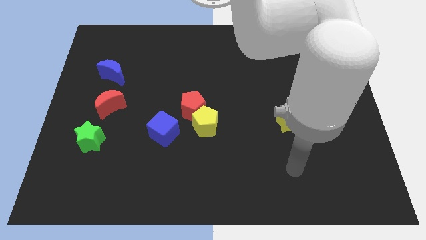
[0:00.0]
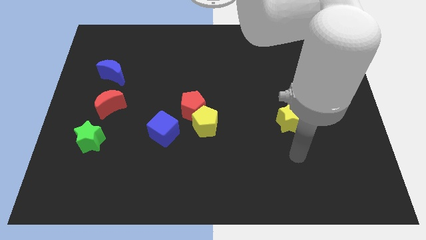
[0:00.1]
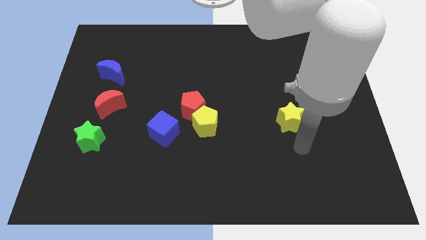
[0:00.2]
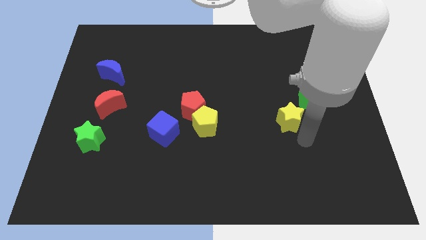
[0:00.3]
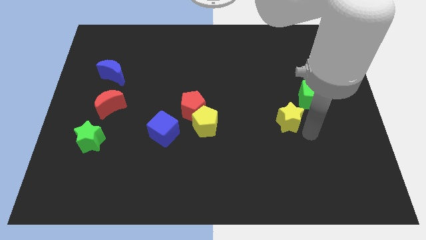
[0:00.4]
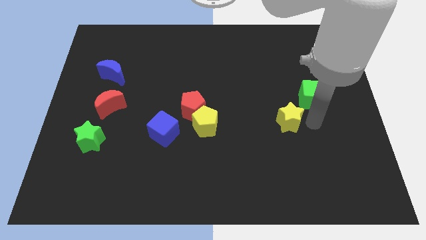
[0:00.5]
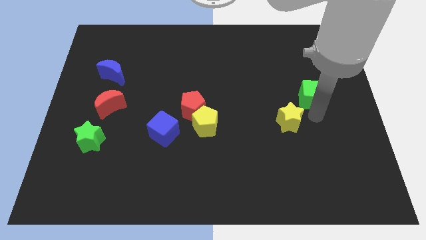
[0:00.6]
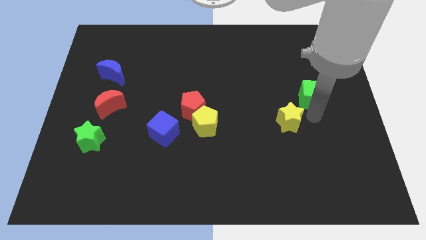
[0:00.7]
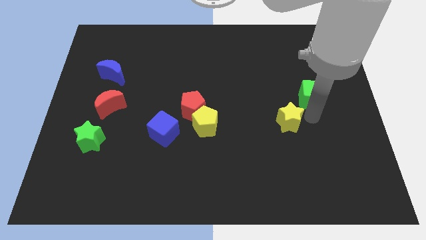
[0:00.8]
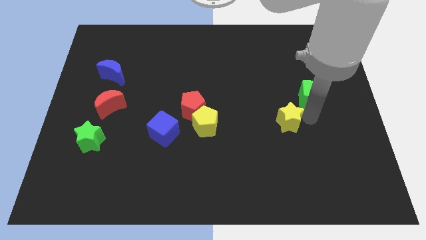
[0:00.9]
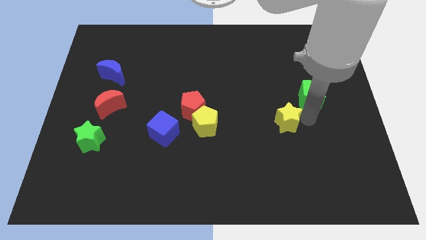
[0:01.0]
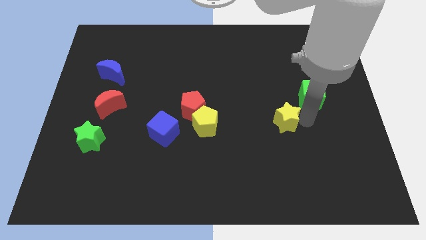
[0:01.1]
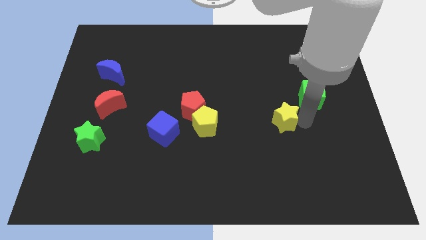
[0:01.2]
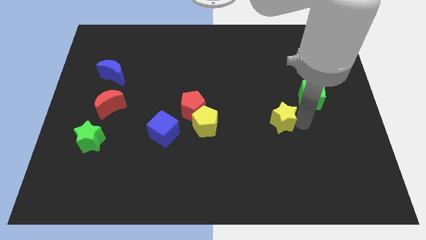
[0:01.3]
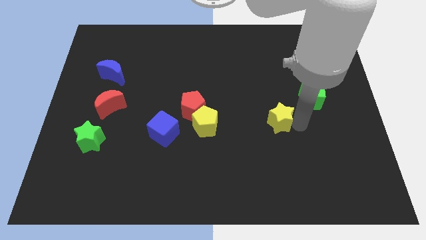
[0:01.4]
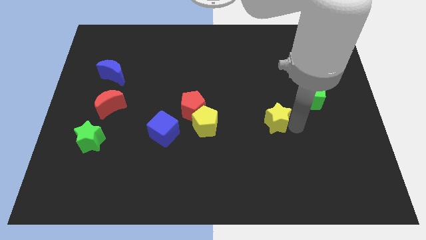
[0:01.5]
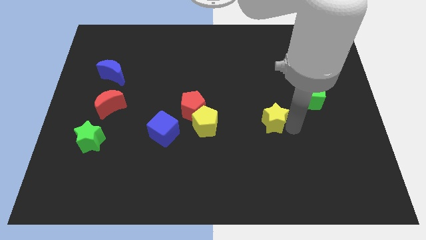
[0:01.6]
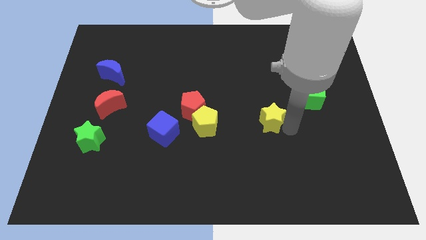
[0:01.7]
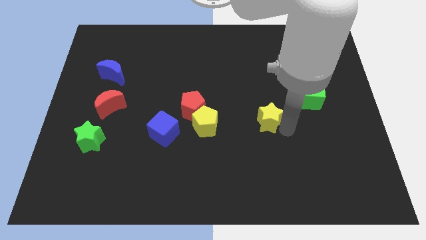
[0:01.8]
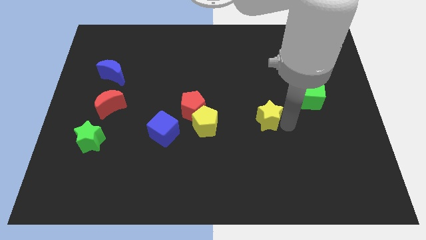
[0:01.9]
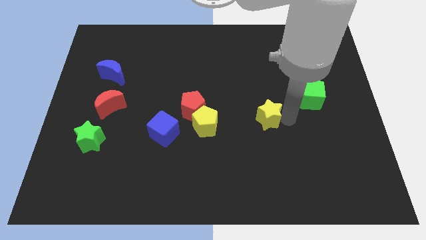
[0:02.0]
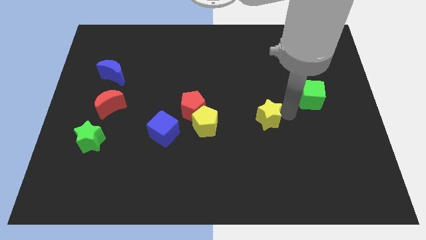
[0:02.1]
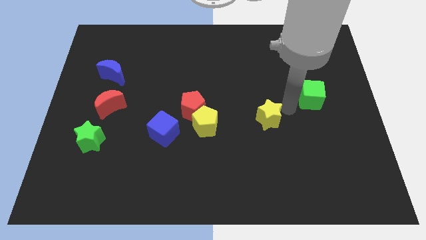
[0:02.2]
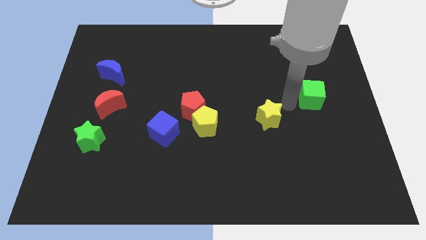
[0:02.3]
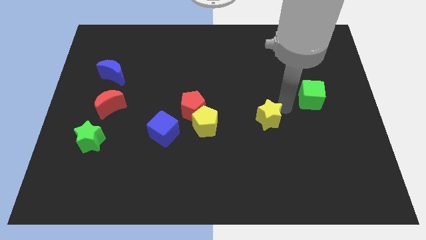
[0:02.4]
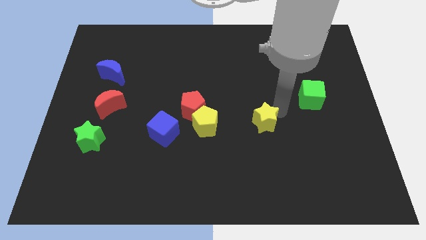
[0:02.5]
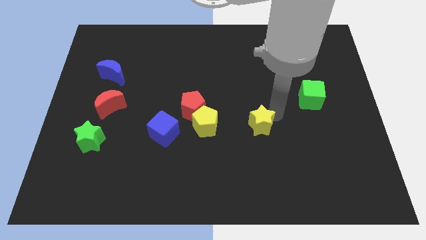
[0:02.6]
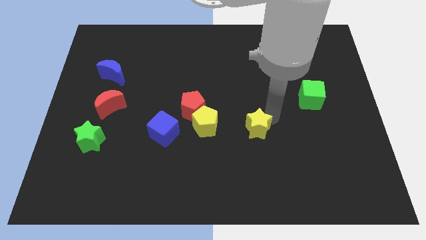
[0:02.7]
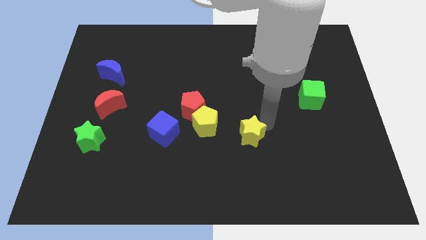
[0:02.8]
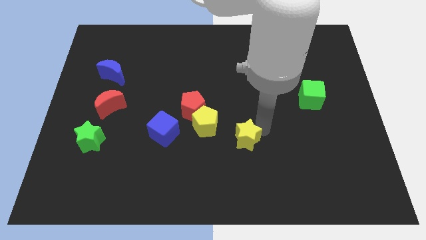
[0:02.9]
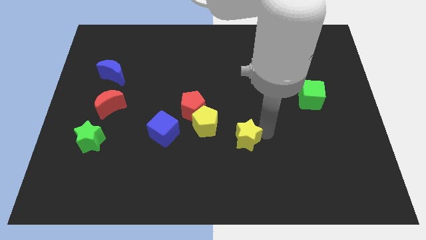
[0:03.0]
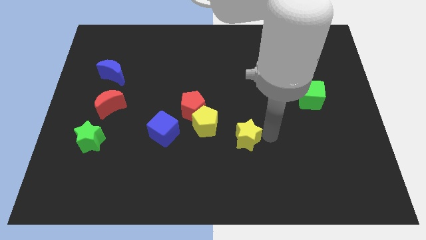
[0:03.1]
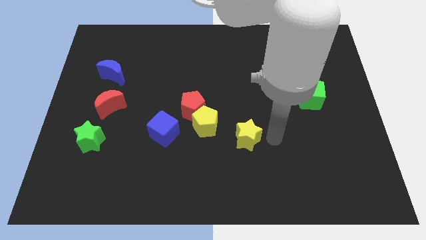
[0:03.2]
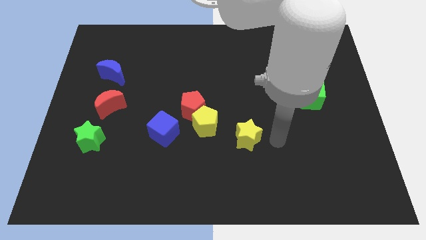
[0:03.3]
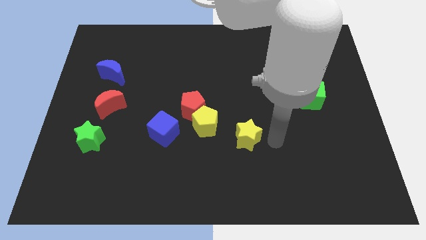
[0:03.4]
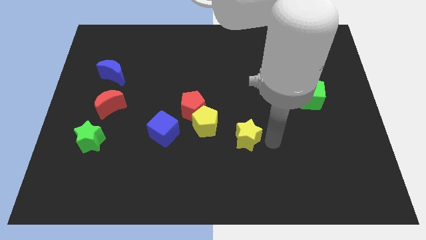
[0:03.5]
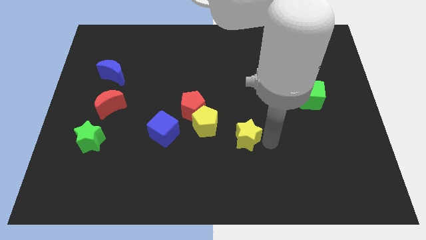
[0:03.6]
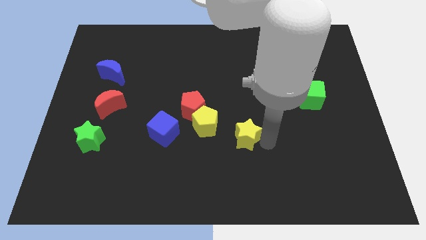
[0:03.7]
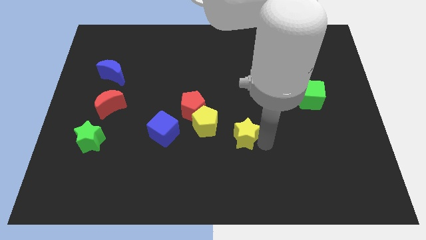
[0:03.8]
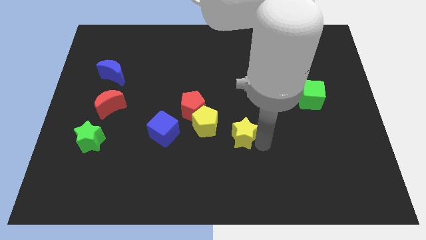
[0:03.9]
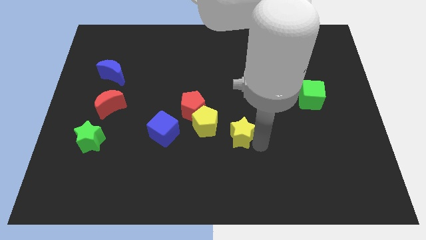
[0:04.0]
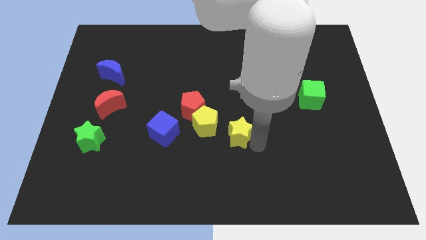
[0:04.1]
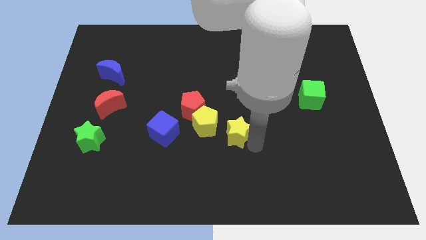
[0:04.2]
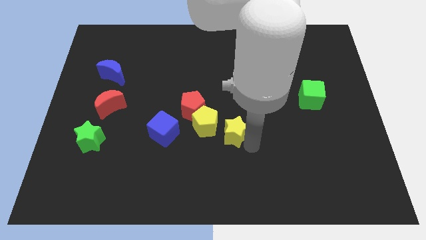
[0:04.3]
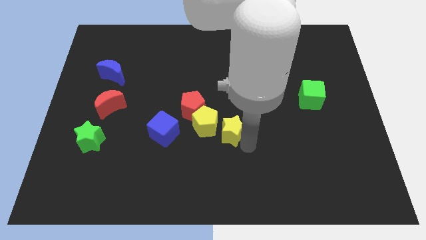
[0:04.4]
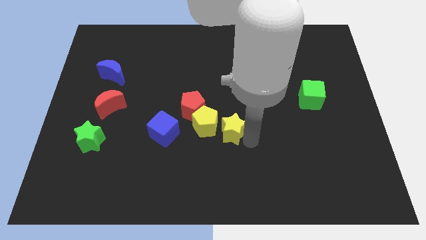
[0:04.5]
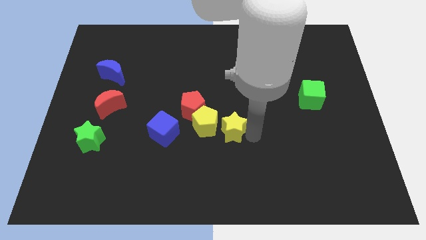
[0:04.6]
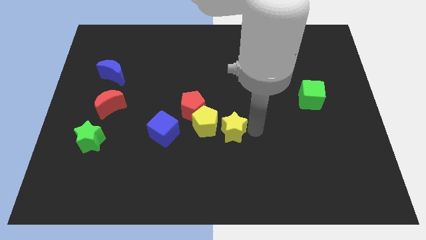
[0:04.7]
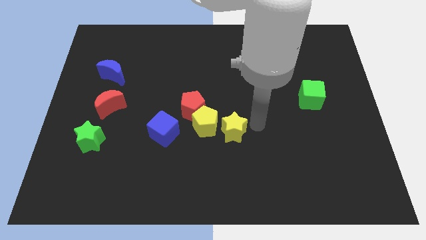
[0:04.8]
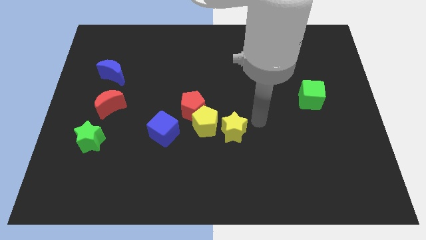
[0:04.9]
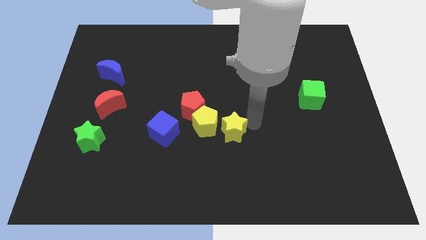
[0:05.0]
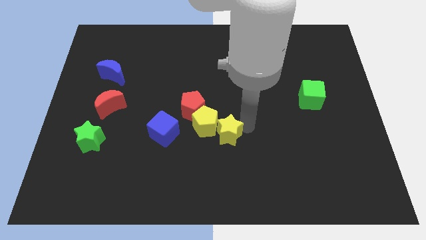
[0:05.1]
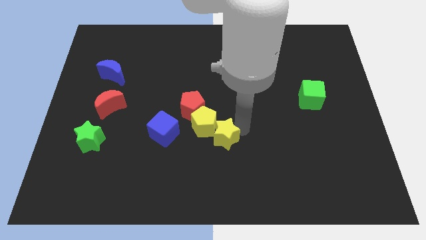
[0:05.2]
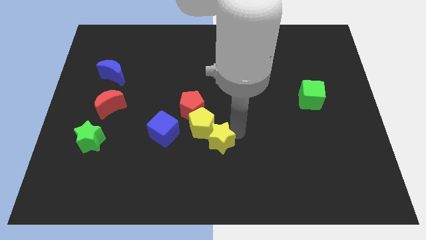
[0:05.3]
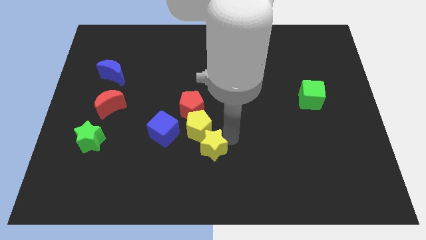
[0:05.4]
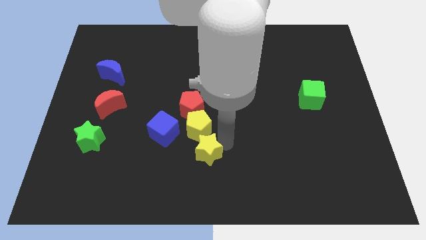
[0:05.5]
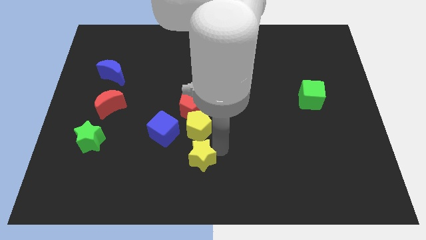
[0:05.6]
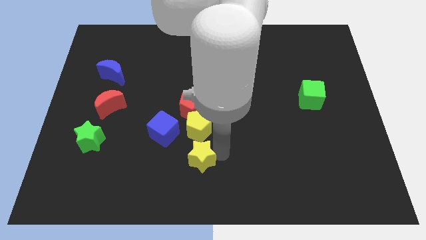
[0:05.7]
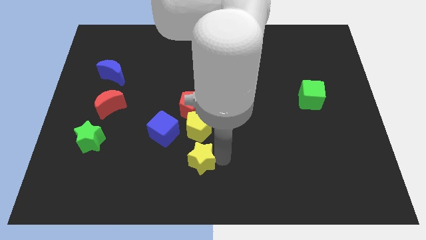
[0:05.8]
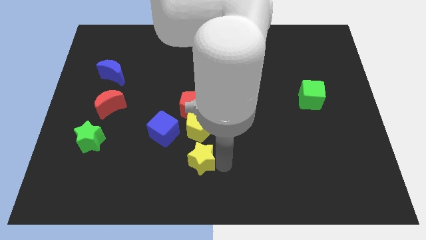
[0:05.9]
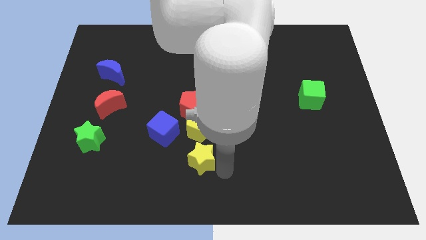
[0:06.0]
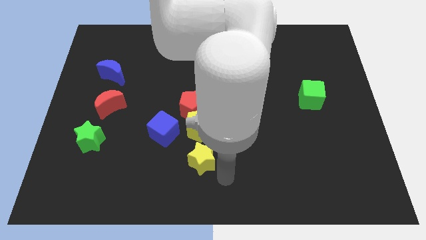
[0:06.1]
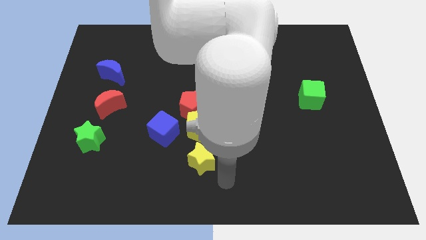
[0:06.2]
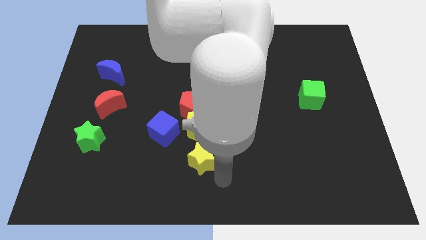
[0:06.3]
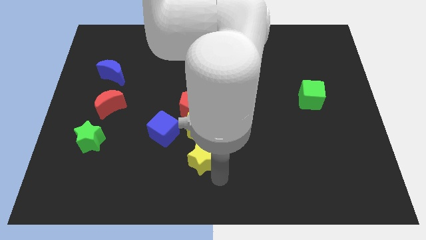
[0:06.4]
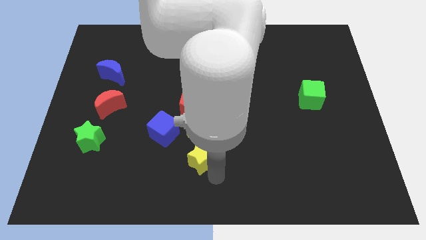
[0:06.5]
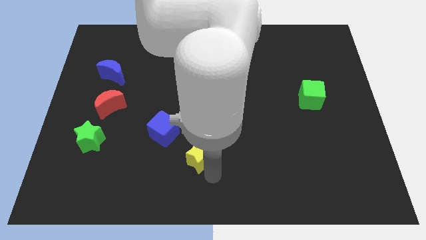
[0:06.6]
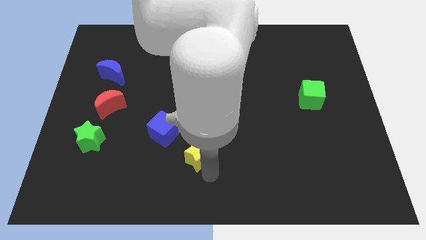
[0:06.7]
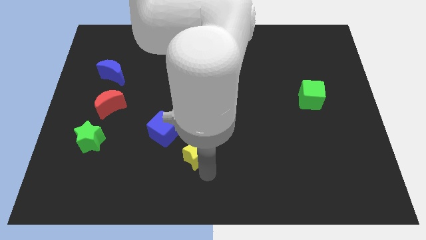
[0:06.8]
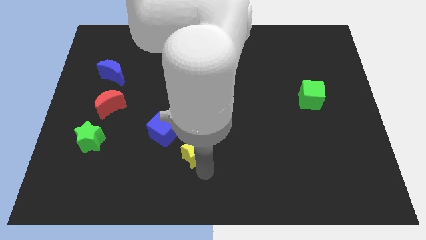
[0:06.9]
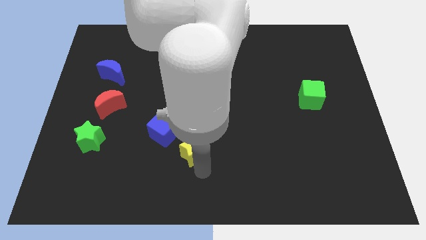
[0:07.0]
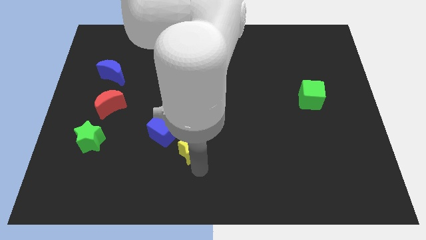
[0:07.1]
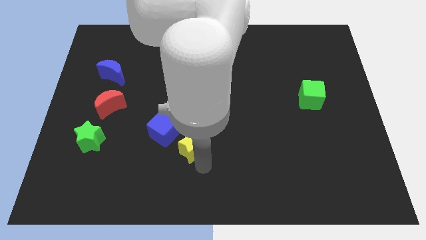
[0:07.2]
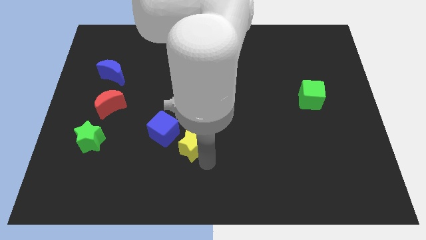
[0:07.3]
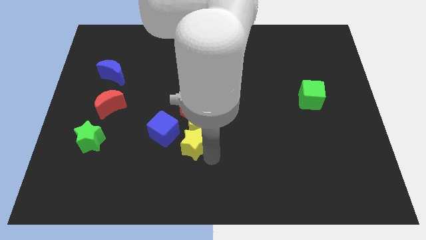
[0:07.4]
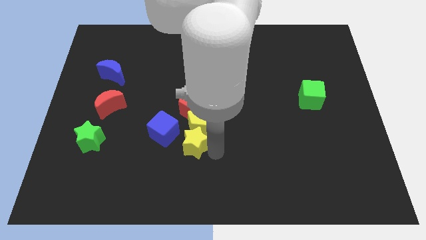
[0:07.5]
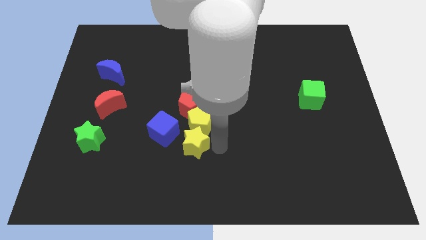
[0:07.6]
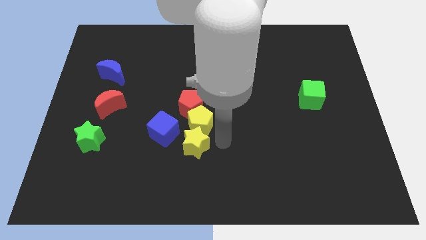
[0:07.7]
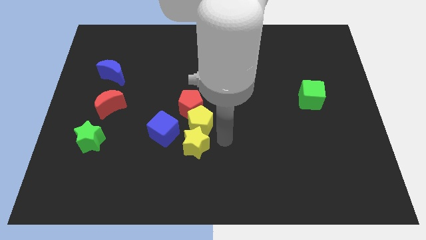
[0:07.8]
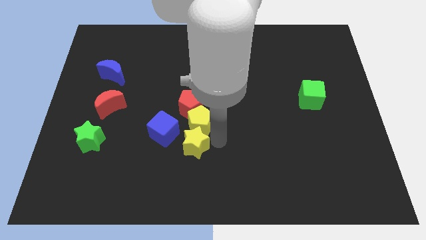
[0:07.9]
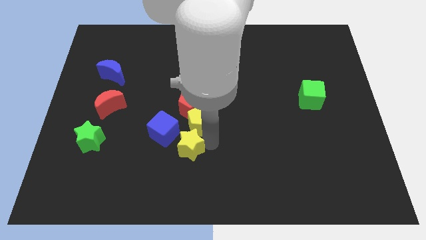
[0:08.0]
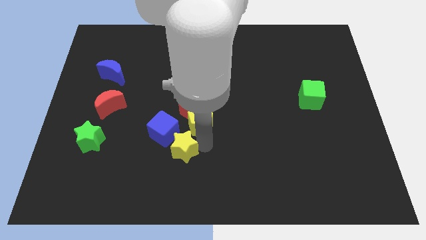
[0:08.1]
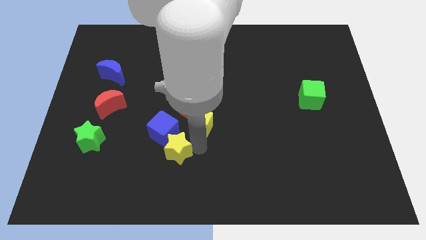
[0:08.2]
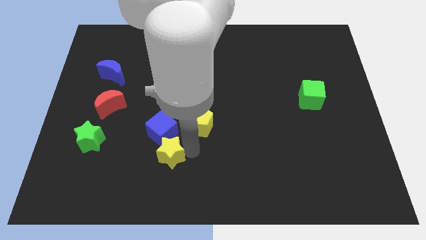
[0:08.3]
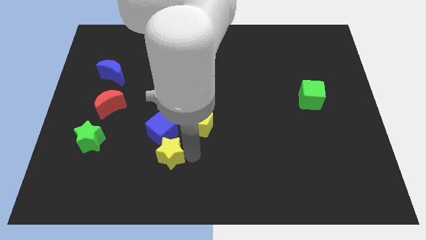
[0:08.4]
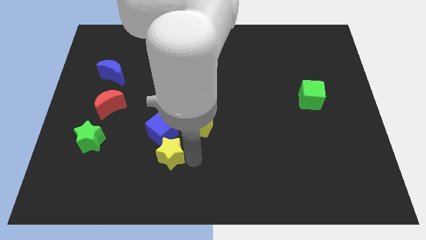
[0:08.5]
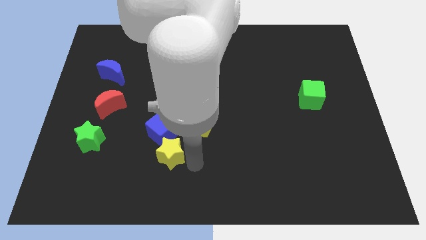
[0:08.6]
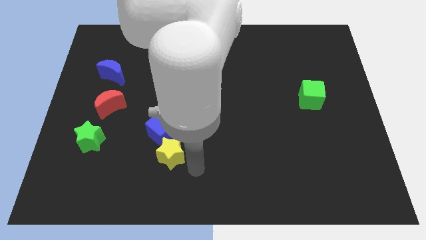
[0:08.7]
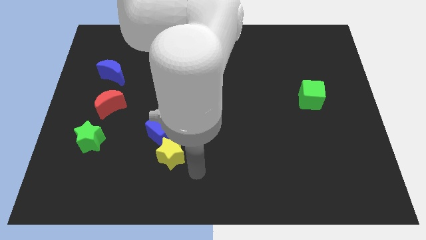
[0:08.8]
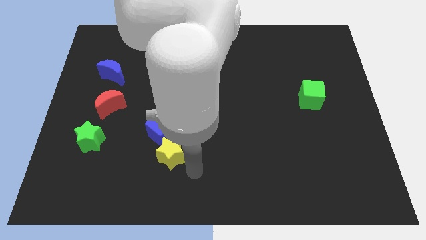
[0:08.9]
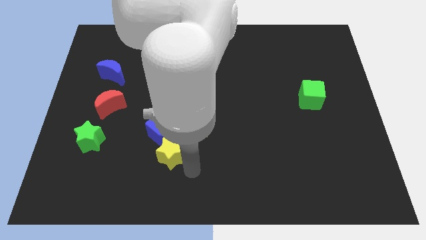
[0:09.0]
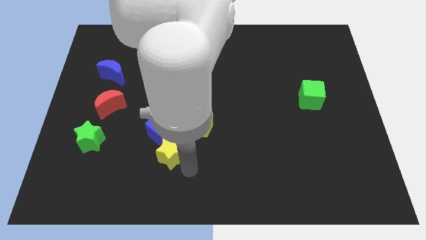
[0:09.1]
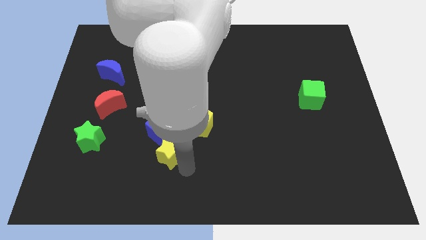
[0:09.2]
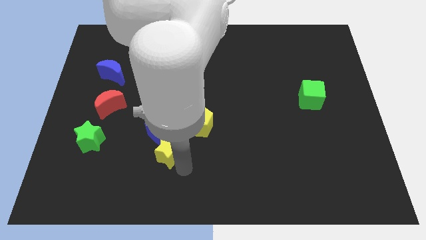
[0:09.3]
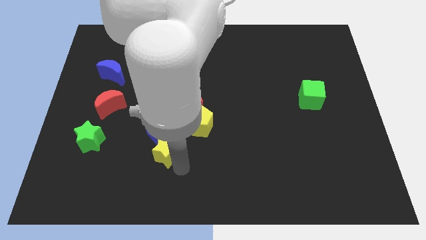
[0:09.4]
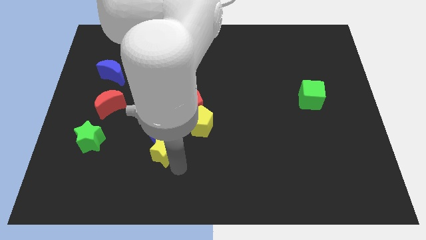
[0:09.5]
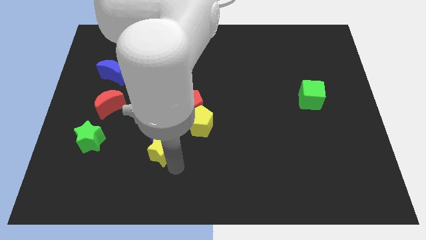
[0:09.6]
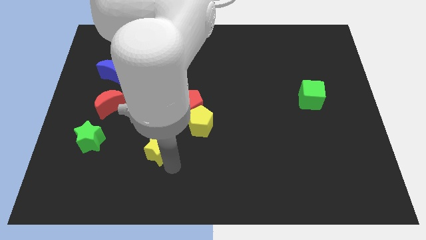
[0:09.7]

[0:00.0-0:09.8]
push the yellow star right of the green star
